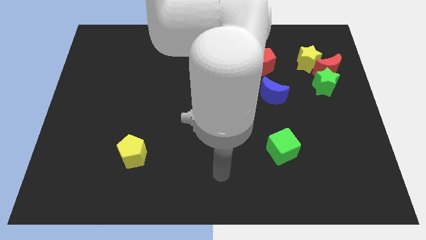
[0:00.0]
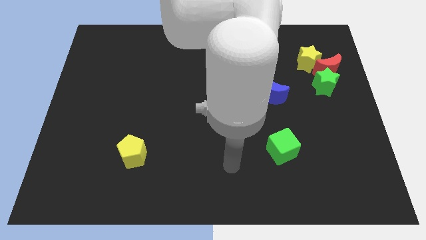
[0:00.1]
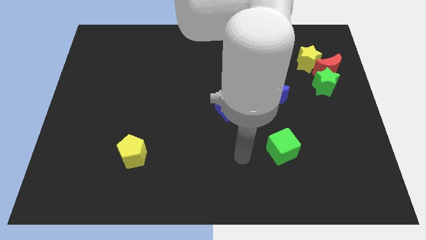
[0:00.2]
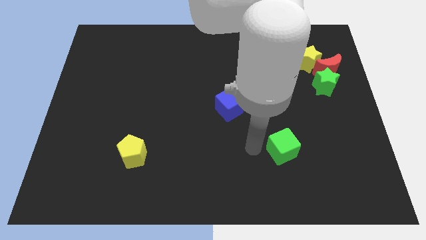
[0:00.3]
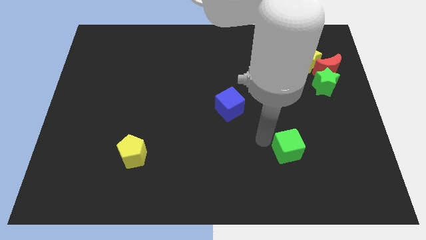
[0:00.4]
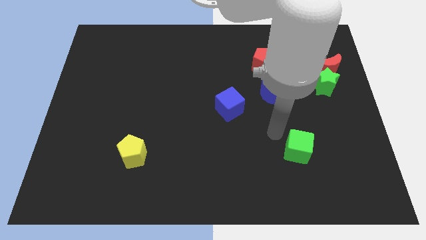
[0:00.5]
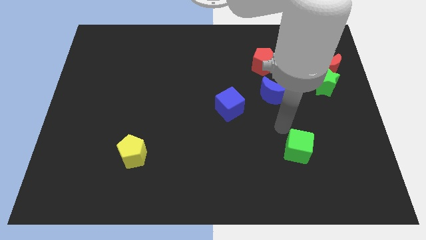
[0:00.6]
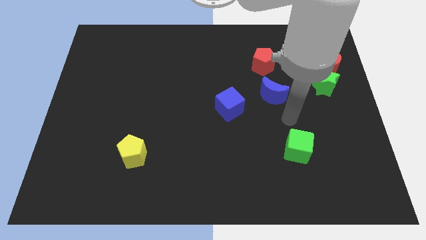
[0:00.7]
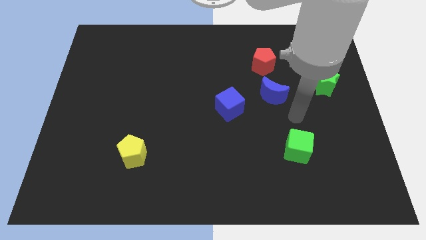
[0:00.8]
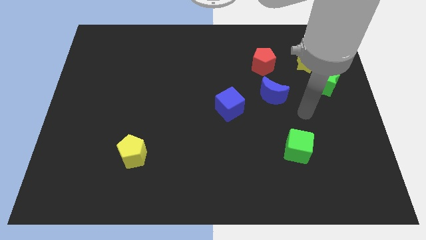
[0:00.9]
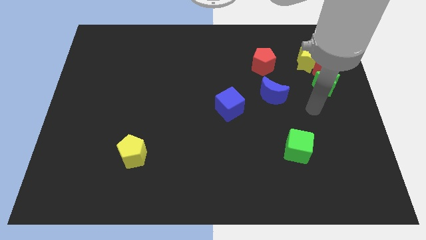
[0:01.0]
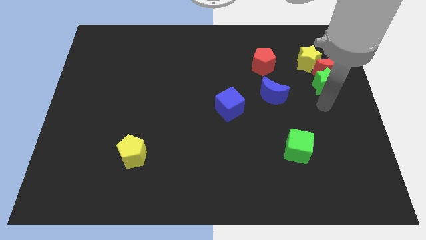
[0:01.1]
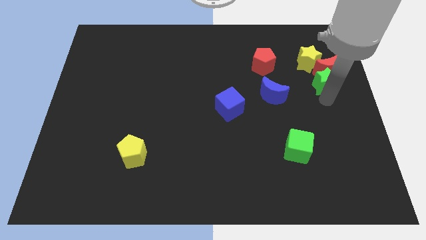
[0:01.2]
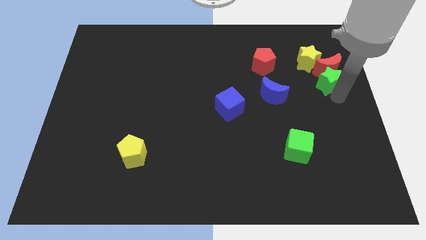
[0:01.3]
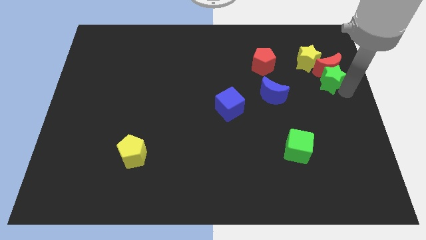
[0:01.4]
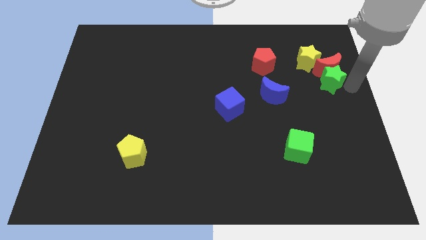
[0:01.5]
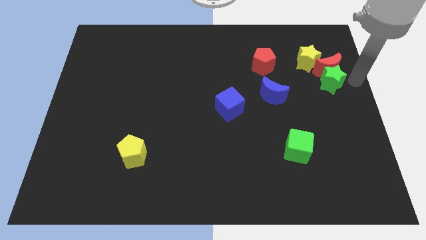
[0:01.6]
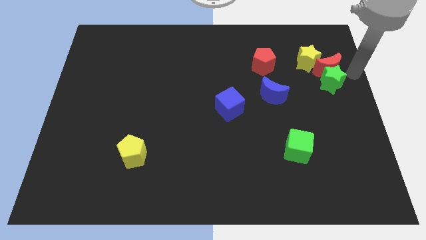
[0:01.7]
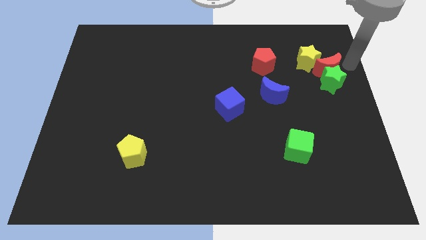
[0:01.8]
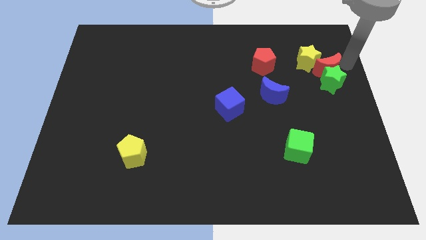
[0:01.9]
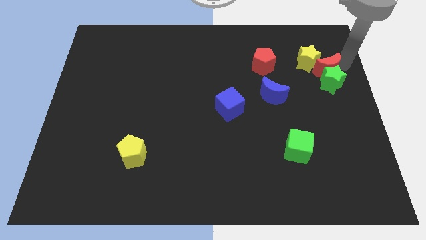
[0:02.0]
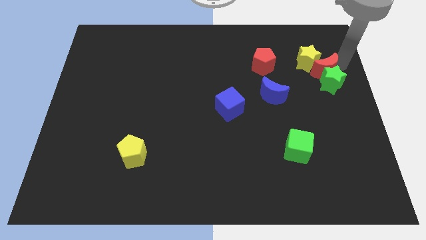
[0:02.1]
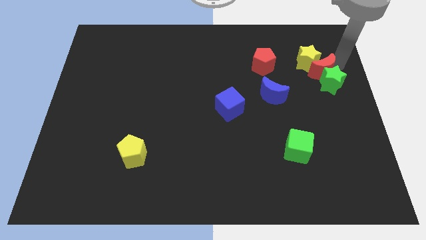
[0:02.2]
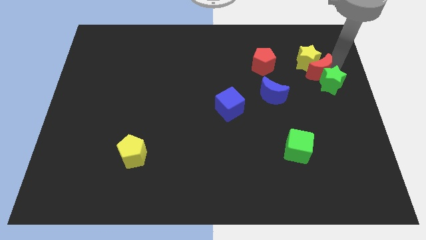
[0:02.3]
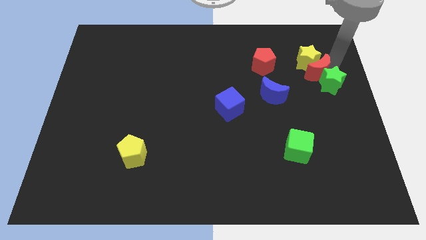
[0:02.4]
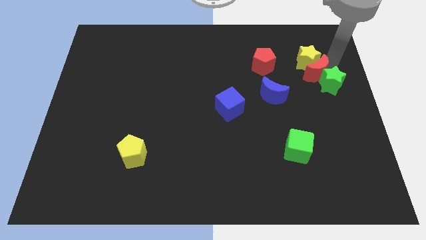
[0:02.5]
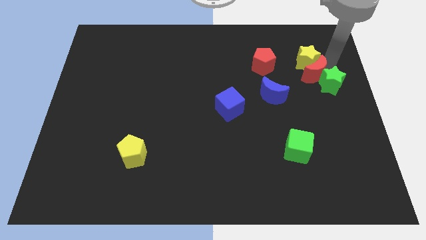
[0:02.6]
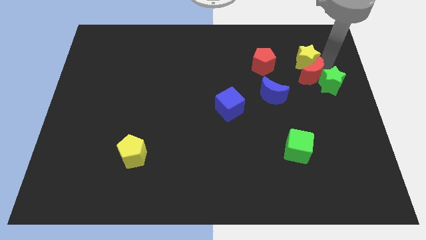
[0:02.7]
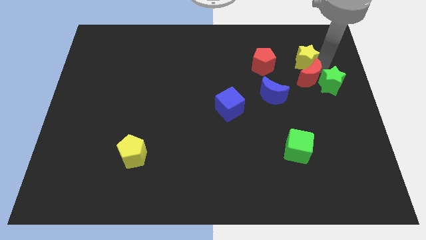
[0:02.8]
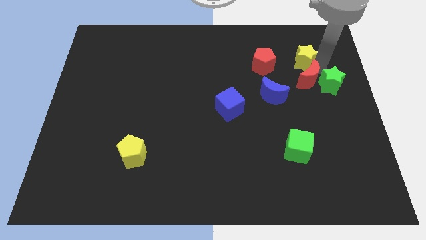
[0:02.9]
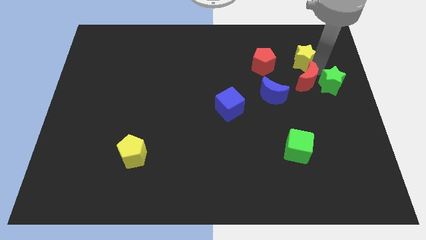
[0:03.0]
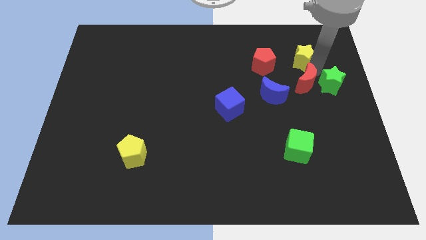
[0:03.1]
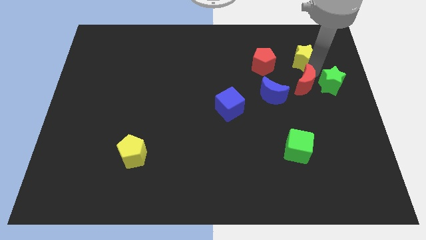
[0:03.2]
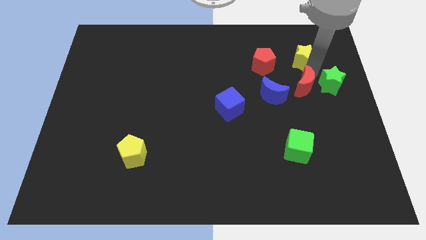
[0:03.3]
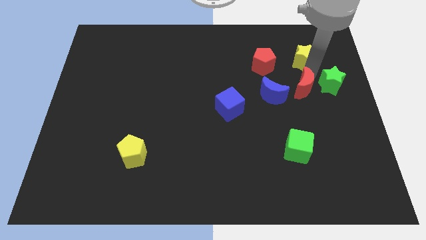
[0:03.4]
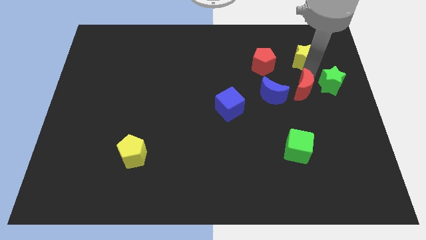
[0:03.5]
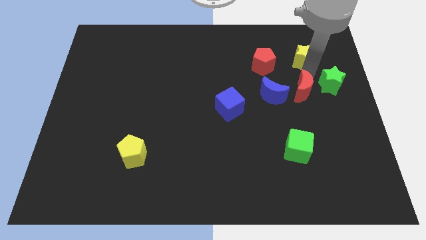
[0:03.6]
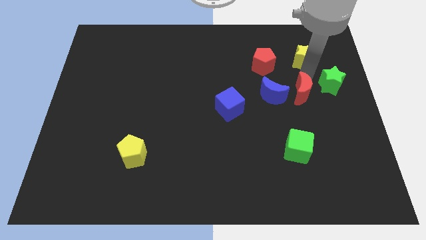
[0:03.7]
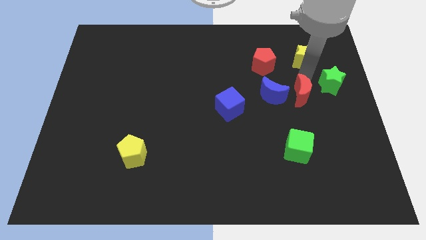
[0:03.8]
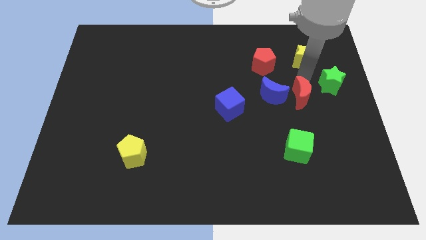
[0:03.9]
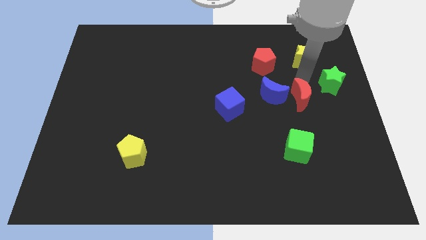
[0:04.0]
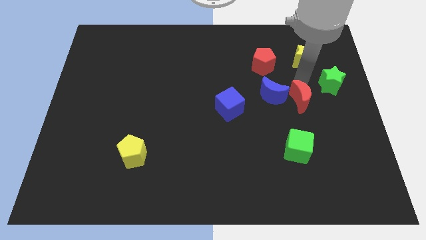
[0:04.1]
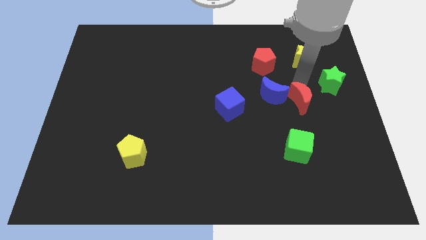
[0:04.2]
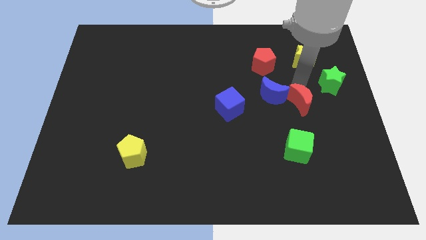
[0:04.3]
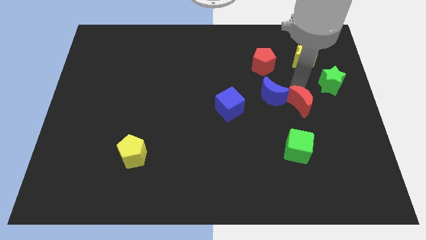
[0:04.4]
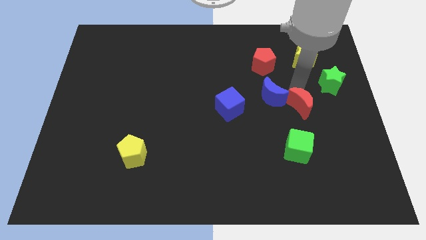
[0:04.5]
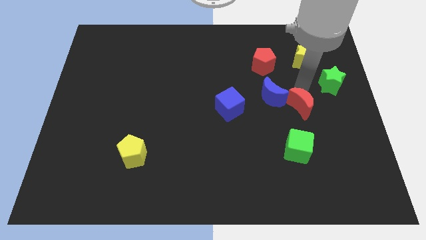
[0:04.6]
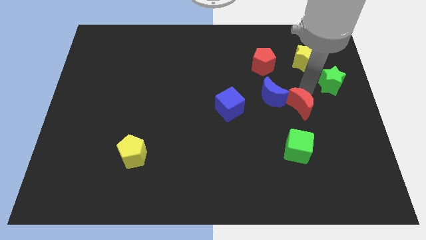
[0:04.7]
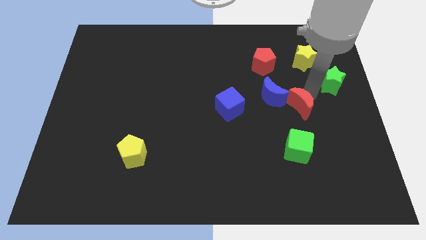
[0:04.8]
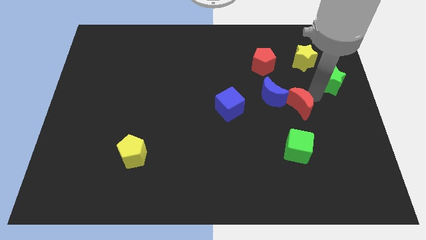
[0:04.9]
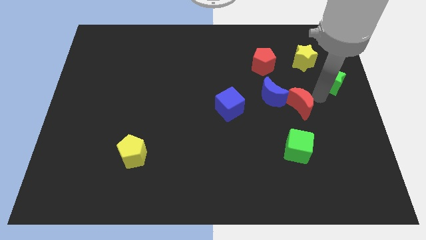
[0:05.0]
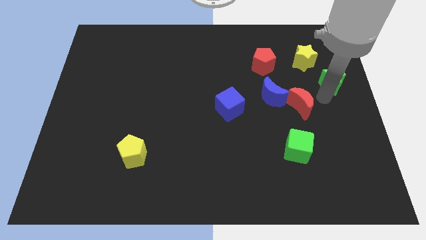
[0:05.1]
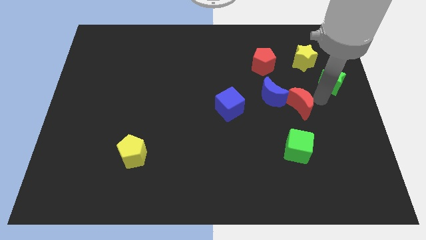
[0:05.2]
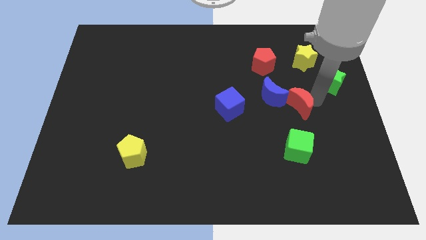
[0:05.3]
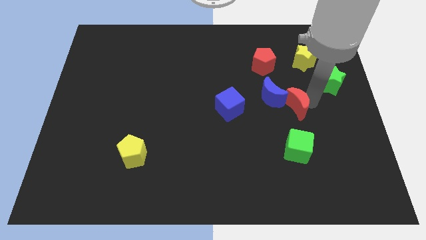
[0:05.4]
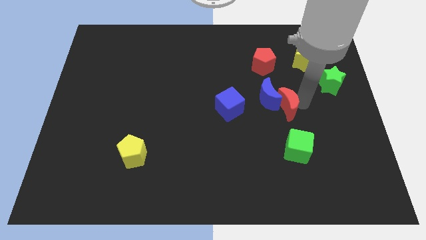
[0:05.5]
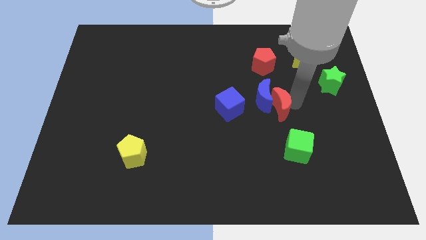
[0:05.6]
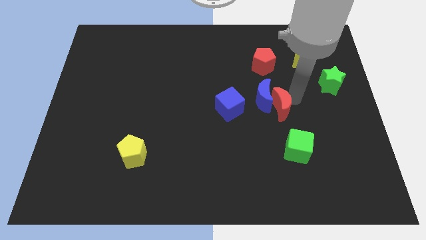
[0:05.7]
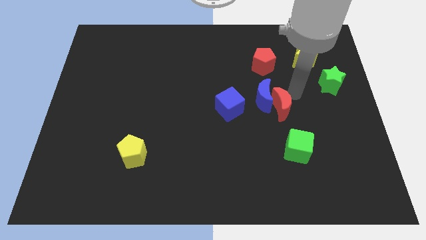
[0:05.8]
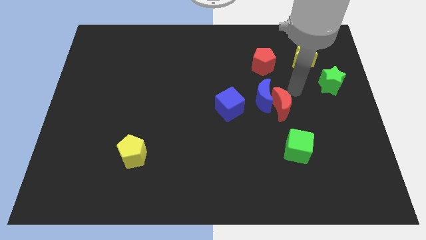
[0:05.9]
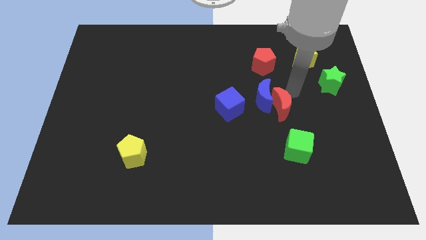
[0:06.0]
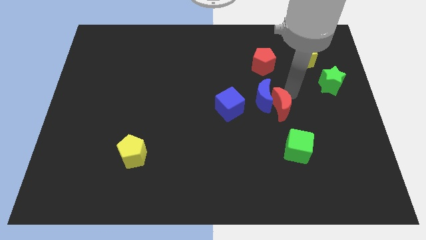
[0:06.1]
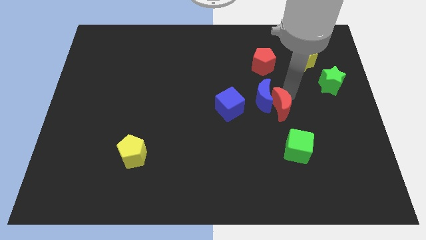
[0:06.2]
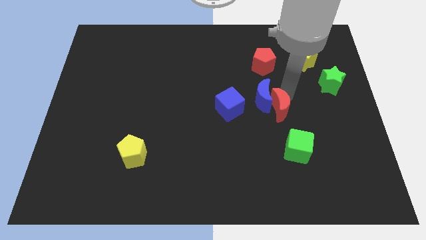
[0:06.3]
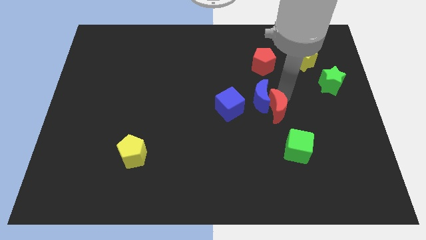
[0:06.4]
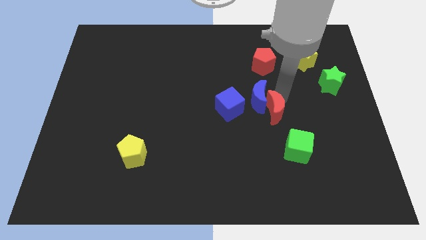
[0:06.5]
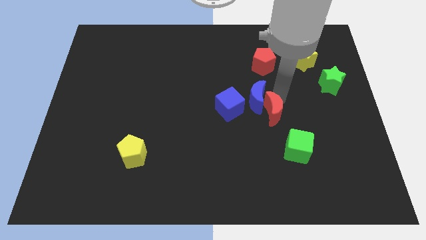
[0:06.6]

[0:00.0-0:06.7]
push the red moon down and then left

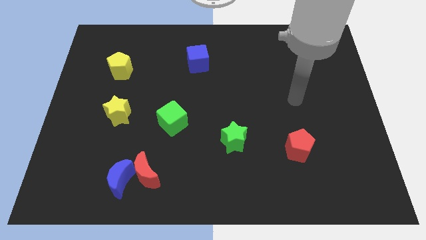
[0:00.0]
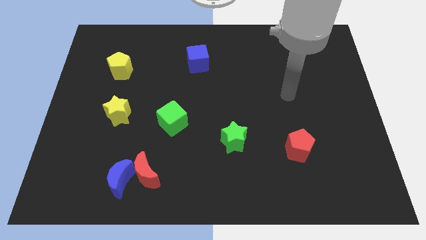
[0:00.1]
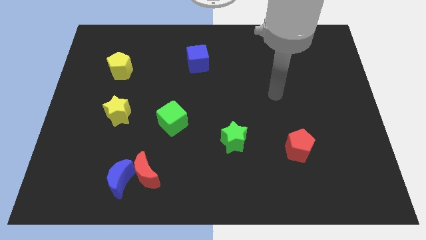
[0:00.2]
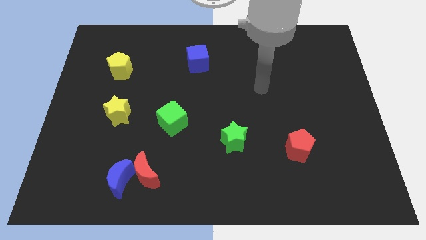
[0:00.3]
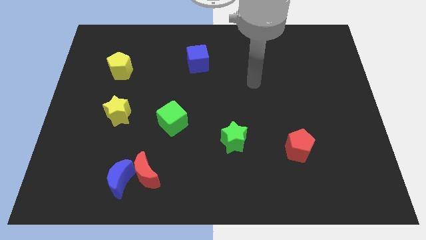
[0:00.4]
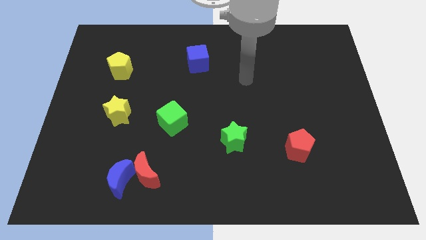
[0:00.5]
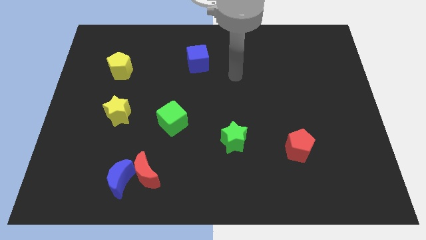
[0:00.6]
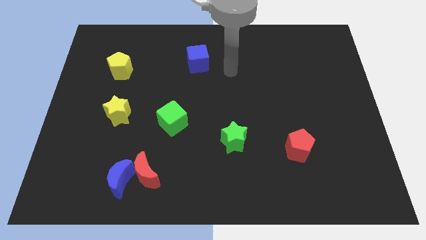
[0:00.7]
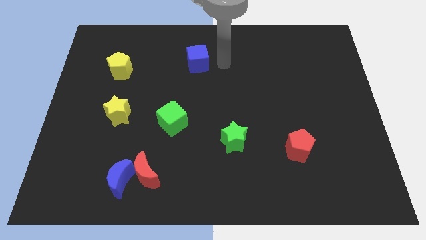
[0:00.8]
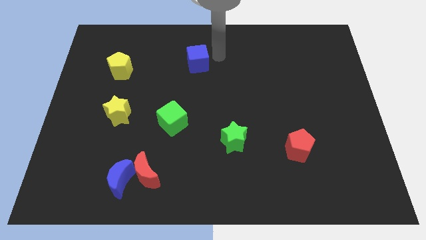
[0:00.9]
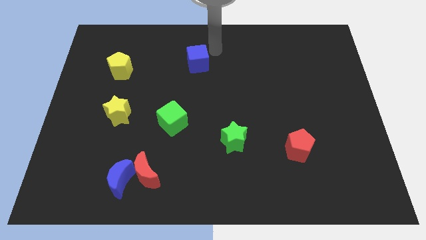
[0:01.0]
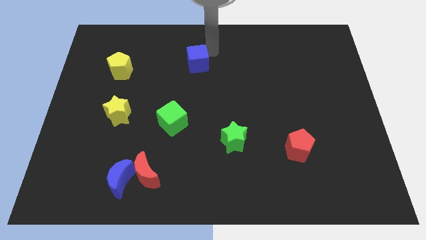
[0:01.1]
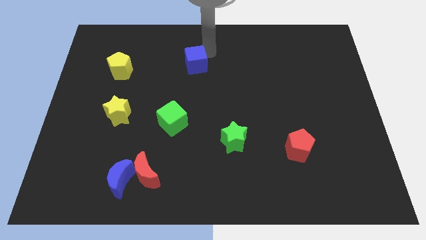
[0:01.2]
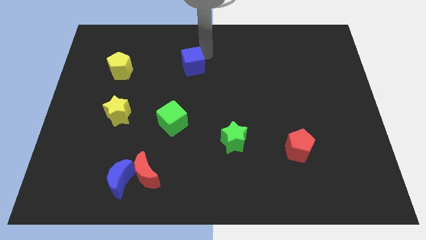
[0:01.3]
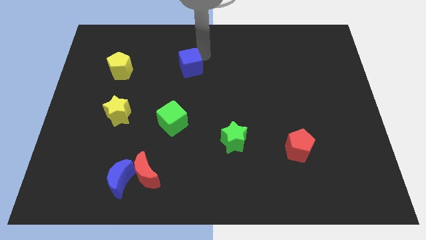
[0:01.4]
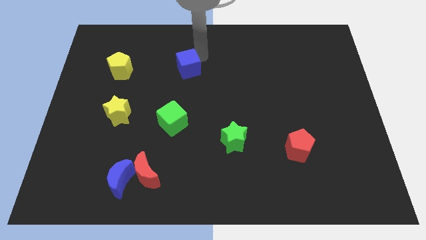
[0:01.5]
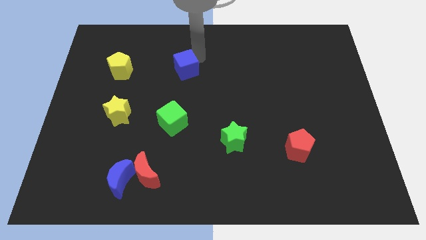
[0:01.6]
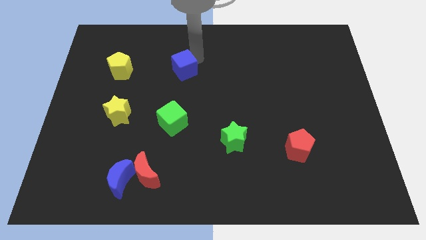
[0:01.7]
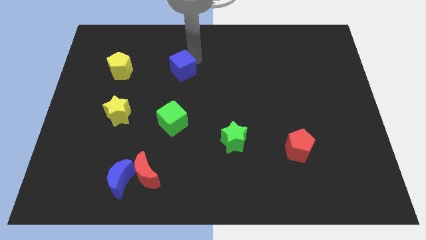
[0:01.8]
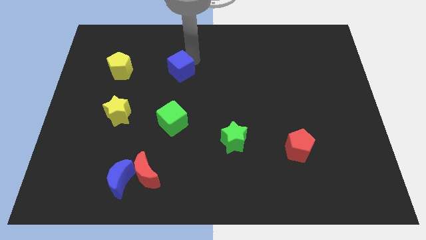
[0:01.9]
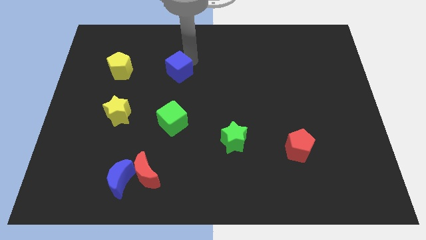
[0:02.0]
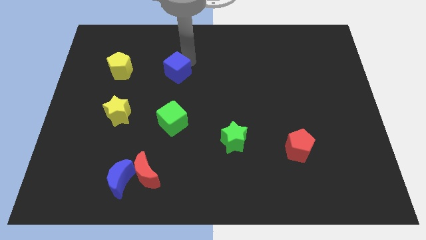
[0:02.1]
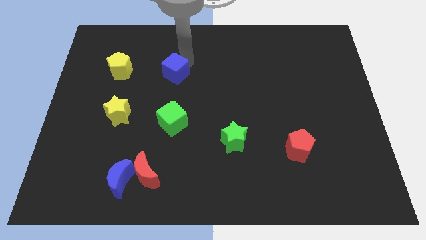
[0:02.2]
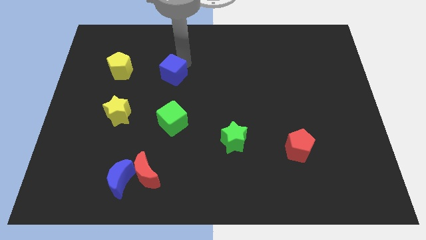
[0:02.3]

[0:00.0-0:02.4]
push the blue cube slightly down and left diagonally
